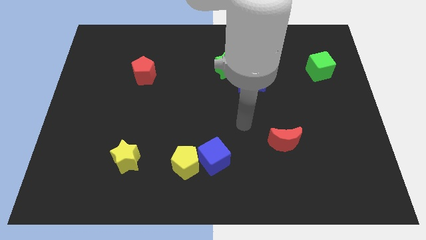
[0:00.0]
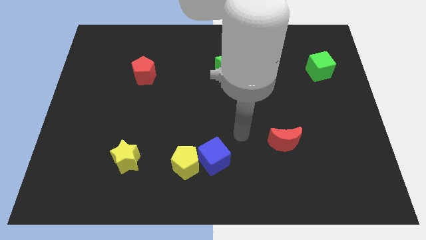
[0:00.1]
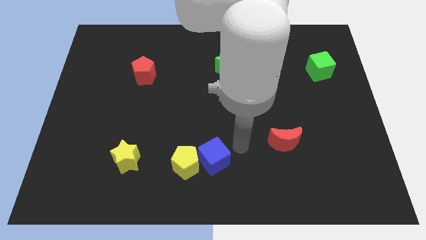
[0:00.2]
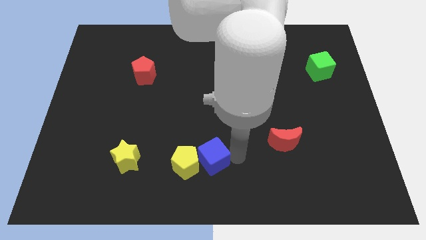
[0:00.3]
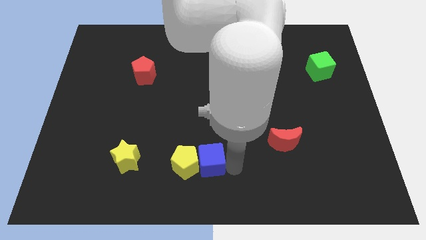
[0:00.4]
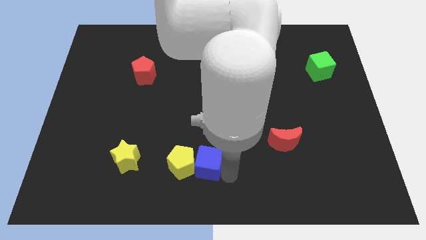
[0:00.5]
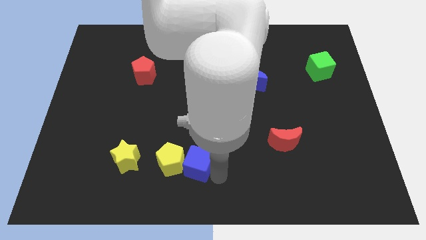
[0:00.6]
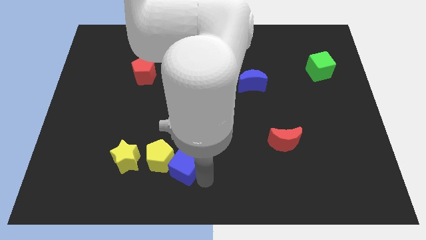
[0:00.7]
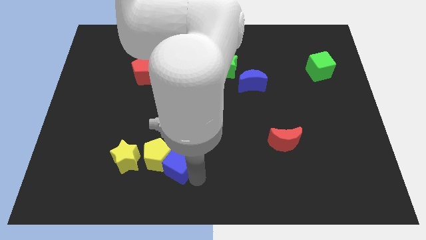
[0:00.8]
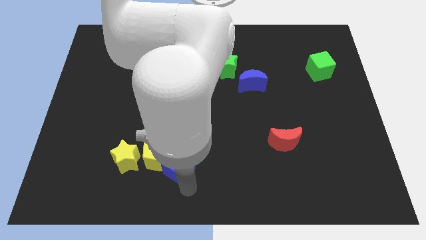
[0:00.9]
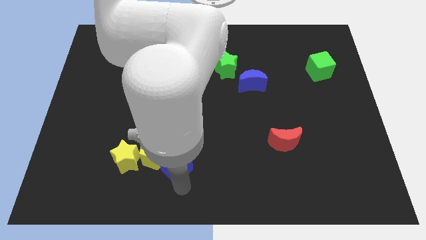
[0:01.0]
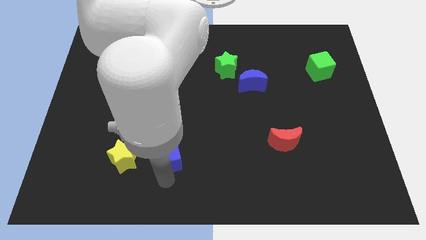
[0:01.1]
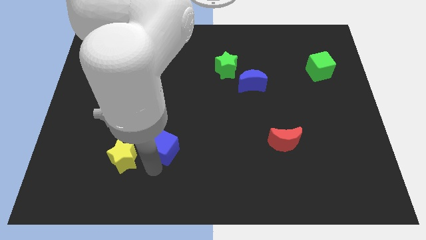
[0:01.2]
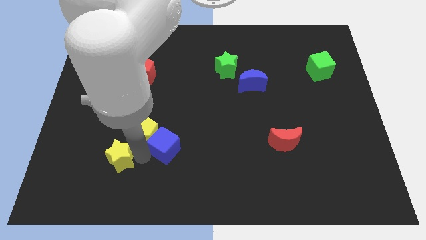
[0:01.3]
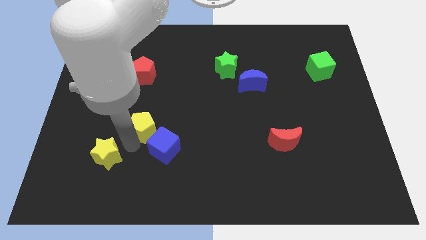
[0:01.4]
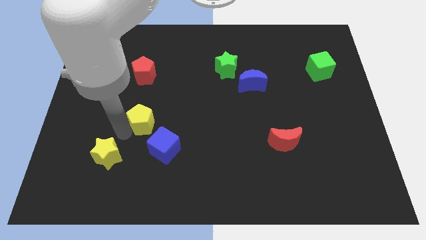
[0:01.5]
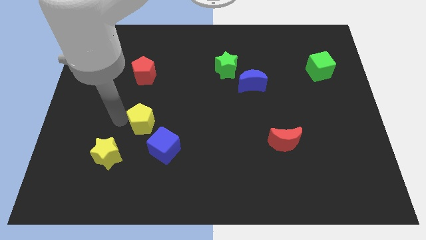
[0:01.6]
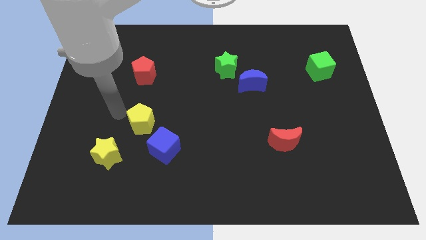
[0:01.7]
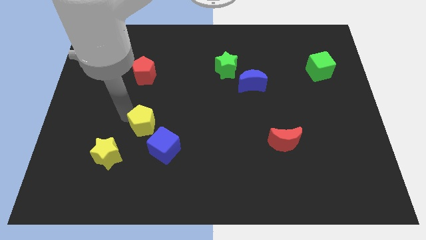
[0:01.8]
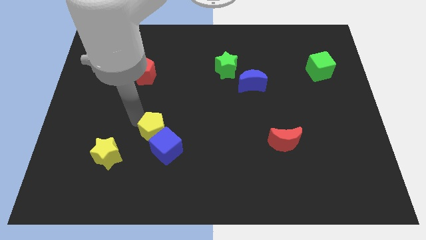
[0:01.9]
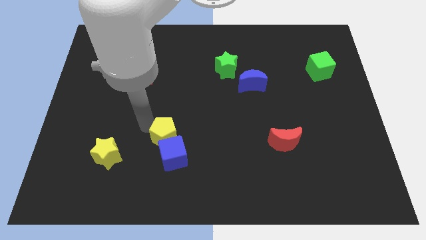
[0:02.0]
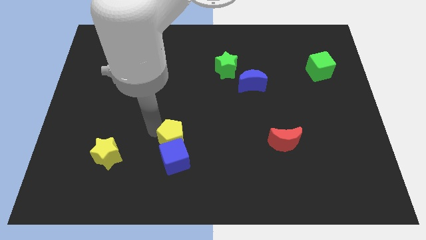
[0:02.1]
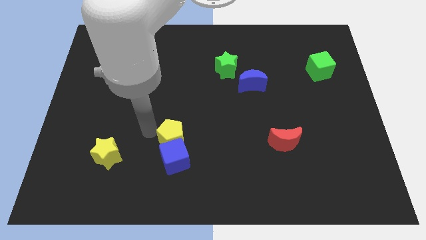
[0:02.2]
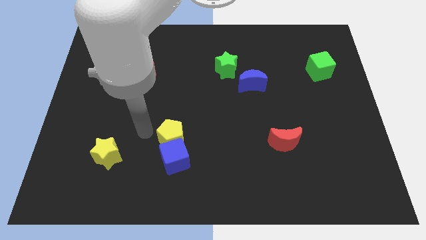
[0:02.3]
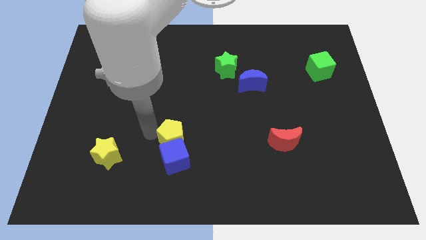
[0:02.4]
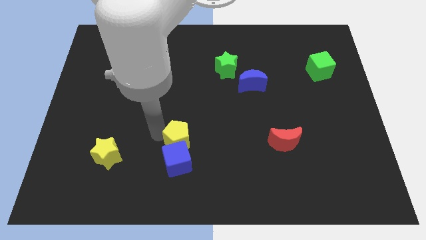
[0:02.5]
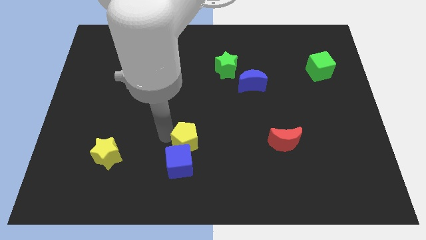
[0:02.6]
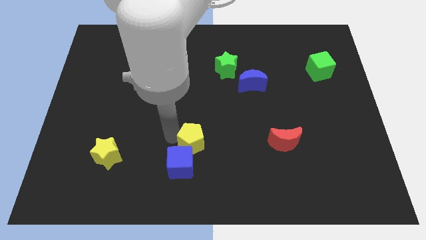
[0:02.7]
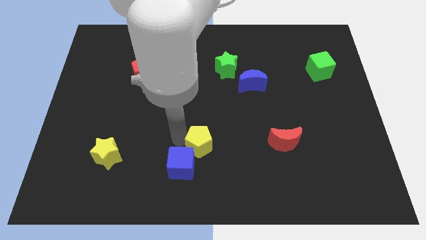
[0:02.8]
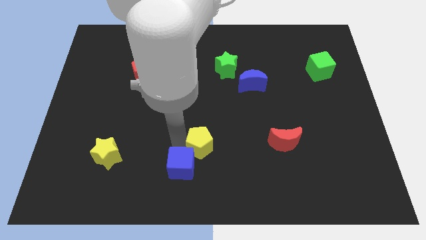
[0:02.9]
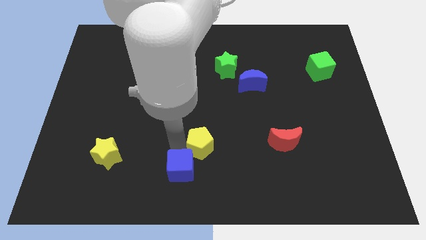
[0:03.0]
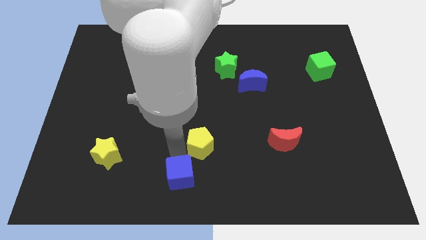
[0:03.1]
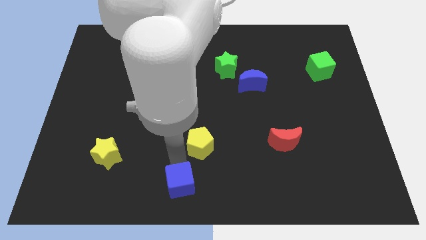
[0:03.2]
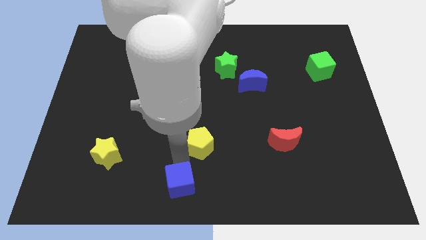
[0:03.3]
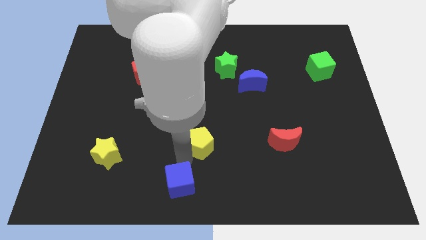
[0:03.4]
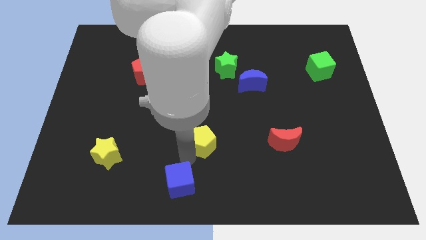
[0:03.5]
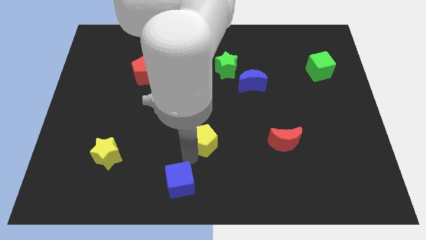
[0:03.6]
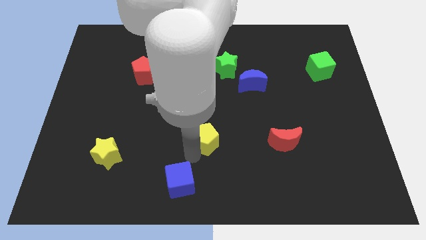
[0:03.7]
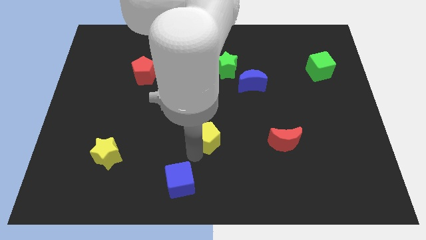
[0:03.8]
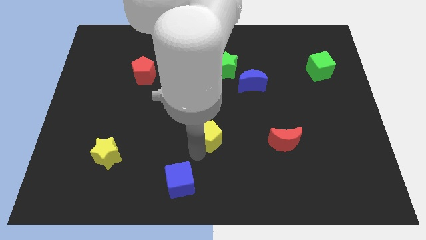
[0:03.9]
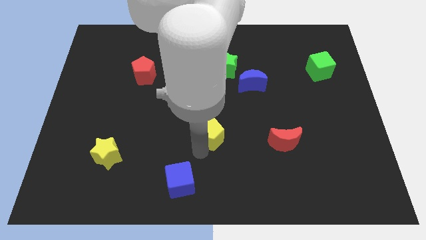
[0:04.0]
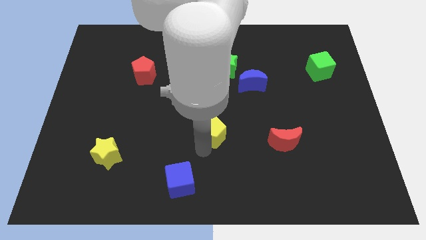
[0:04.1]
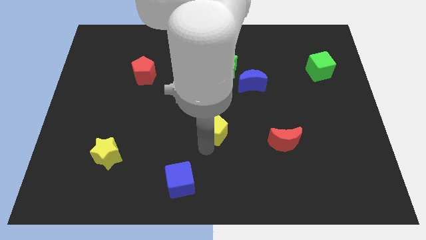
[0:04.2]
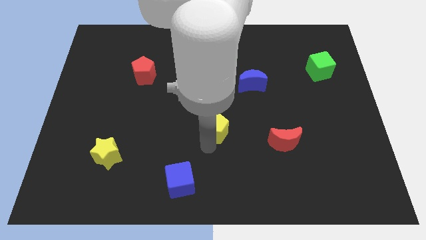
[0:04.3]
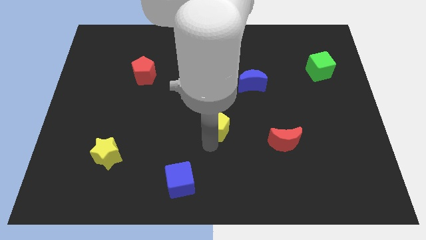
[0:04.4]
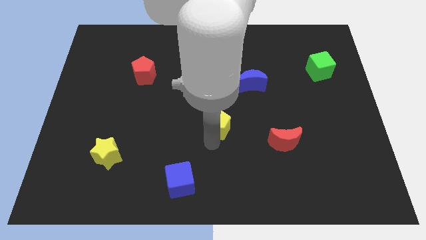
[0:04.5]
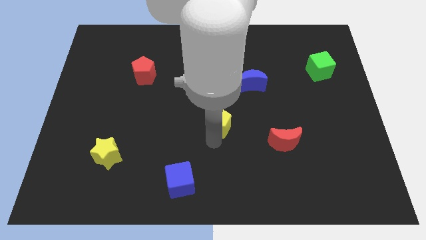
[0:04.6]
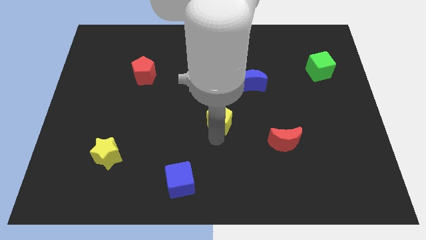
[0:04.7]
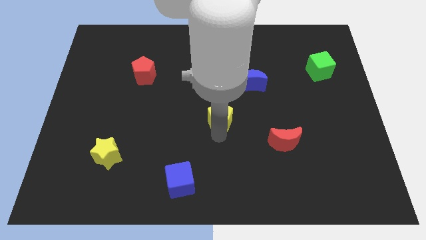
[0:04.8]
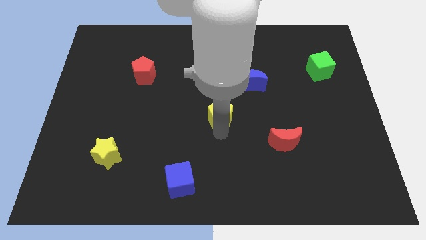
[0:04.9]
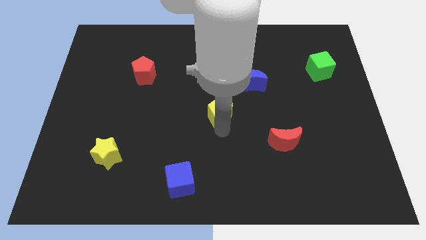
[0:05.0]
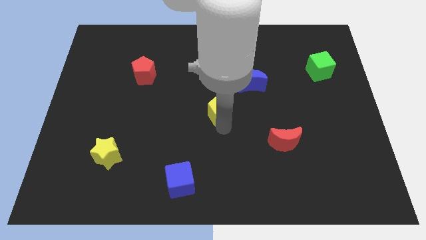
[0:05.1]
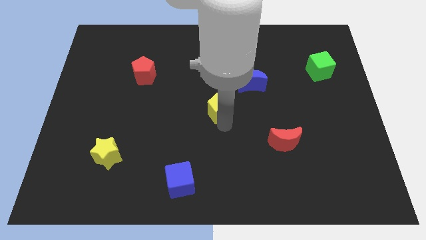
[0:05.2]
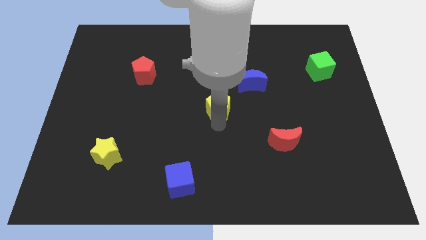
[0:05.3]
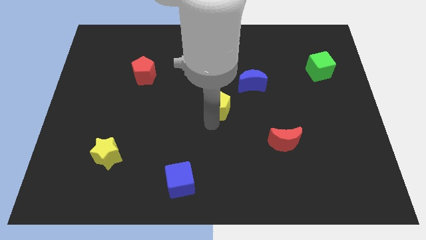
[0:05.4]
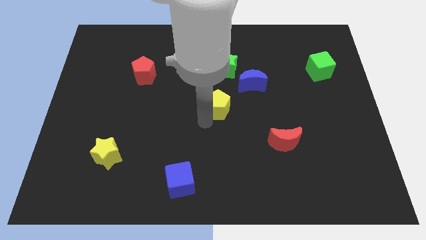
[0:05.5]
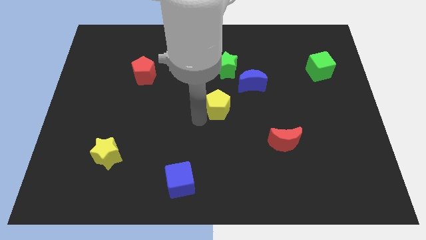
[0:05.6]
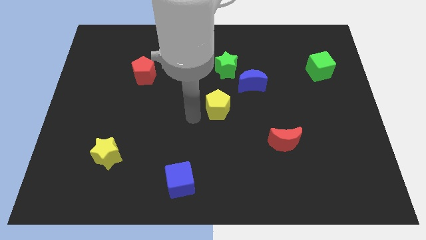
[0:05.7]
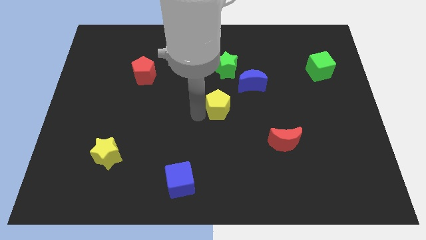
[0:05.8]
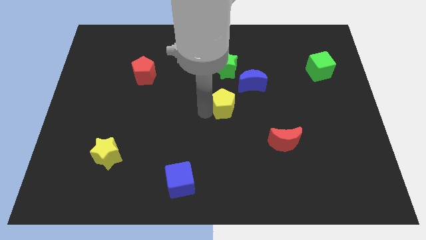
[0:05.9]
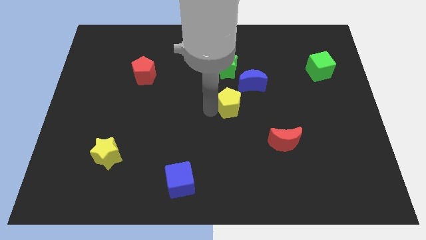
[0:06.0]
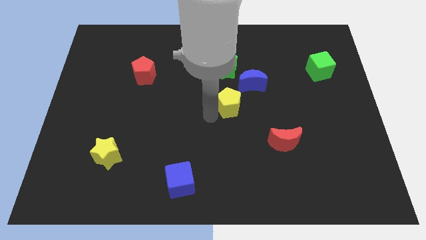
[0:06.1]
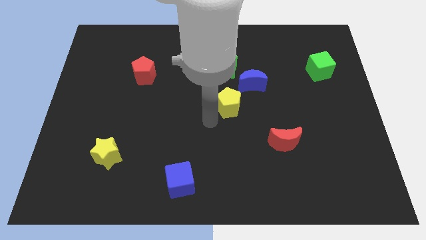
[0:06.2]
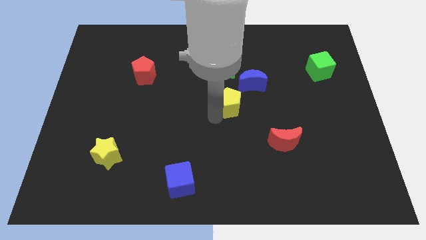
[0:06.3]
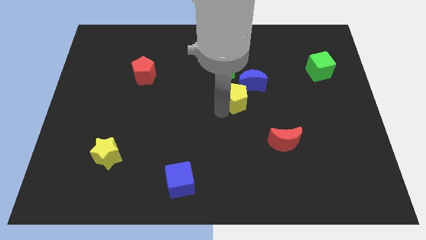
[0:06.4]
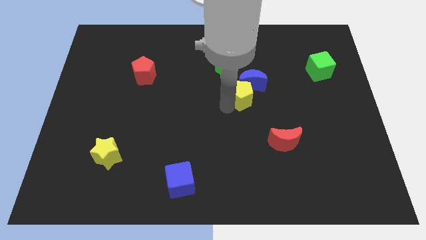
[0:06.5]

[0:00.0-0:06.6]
slide the yellow pentagon to the blue moon
